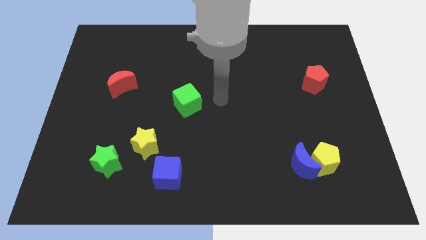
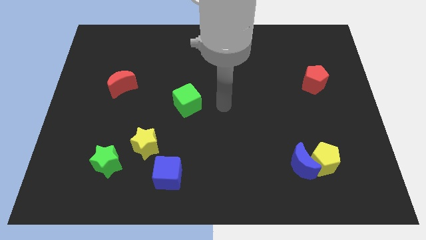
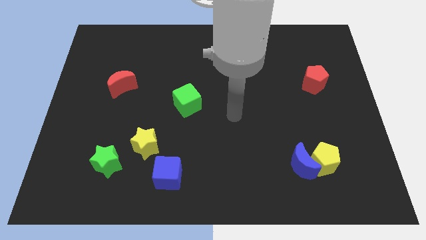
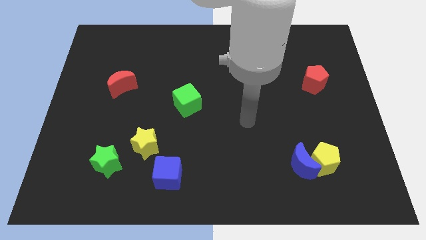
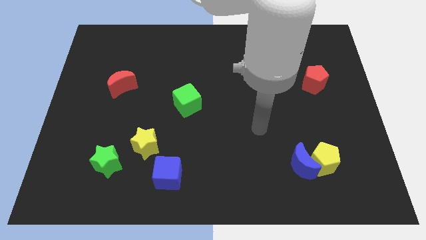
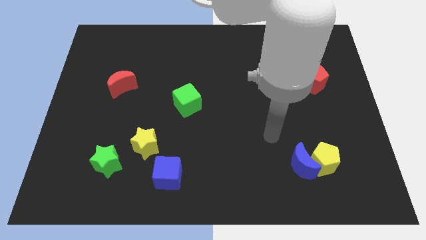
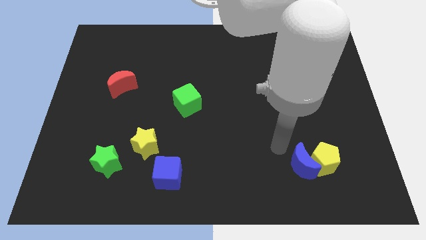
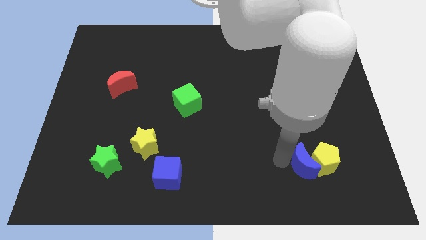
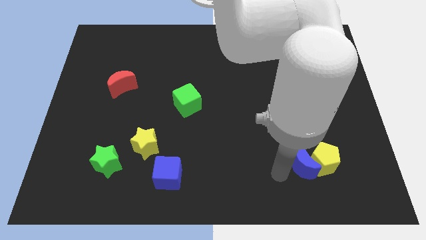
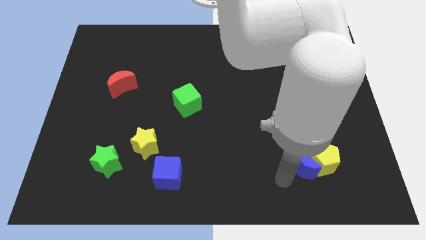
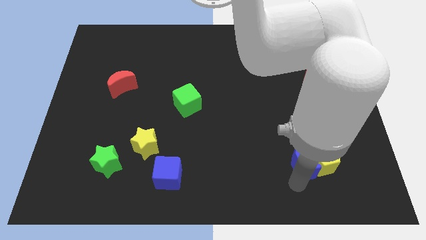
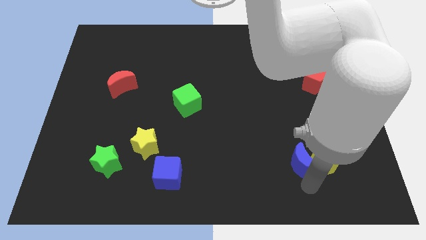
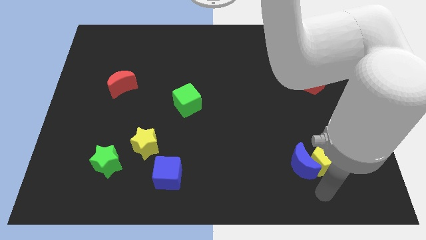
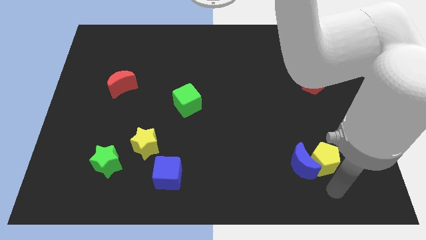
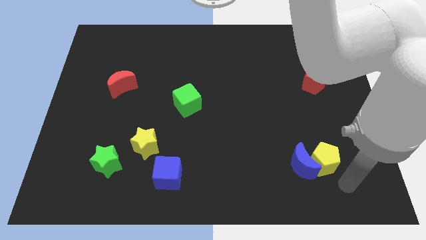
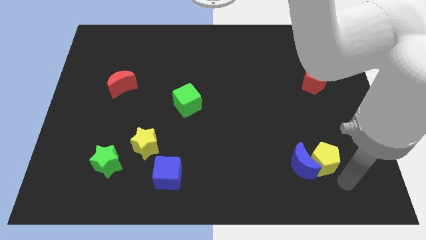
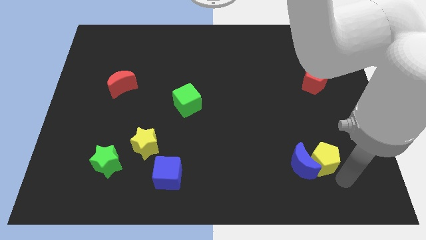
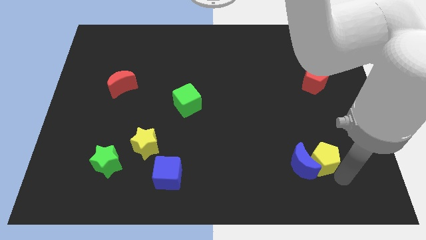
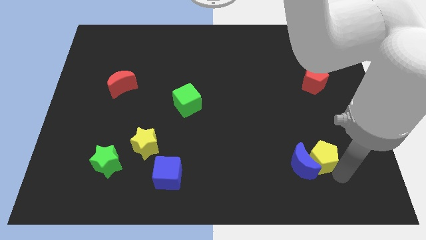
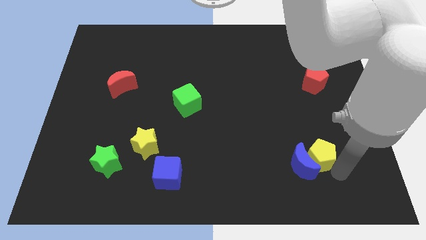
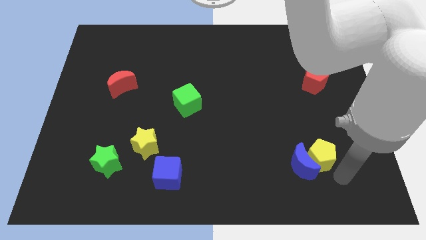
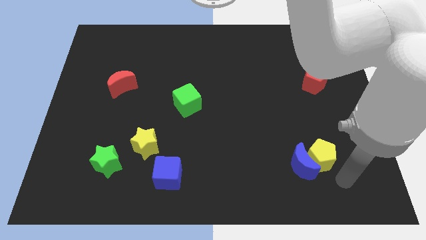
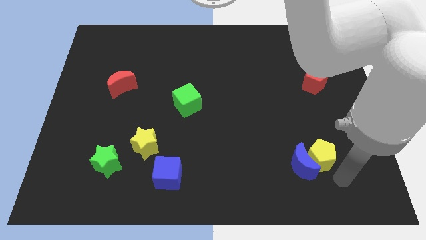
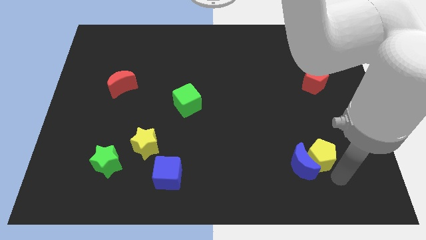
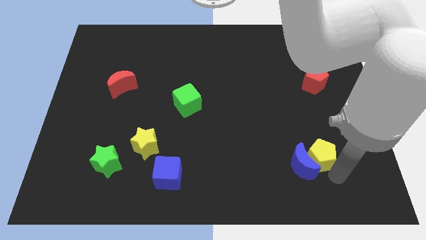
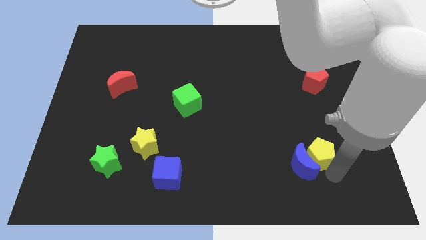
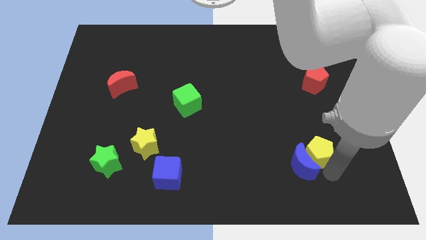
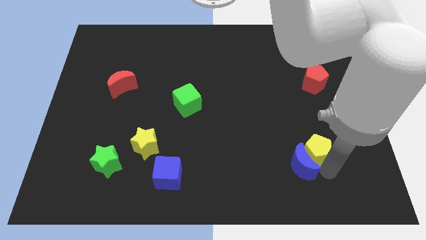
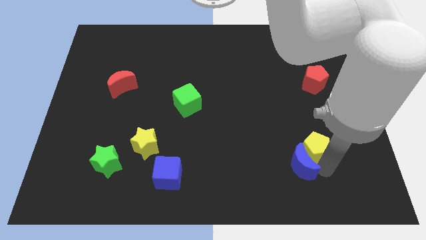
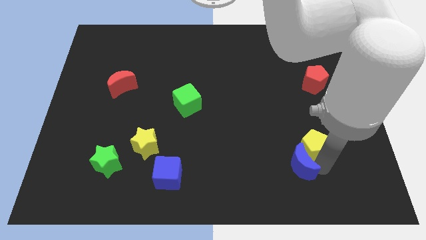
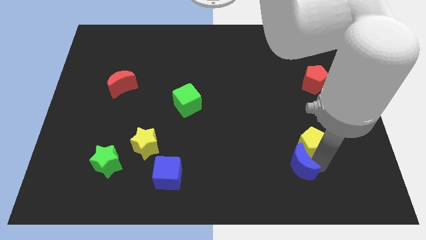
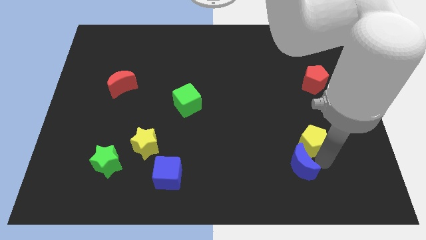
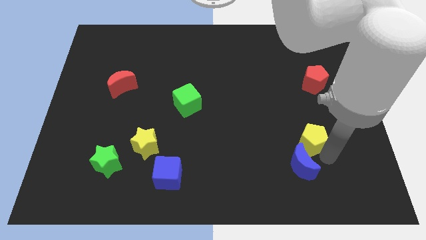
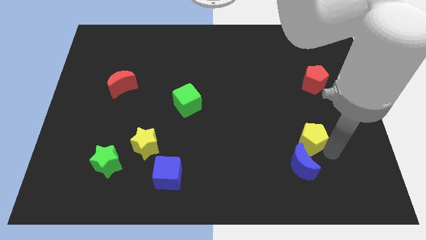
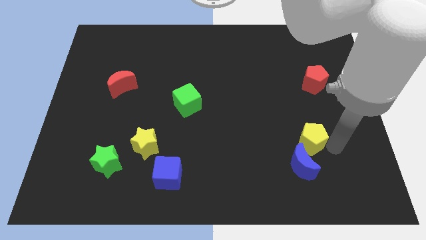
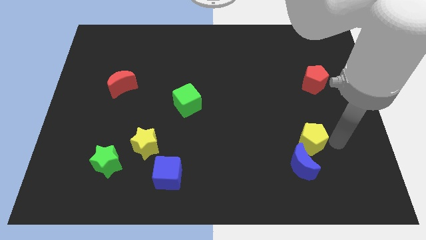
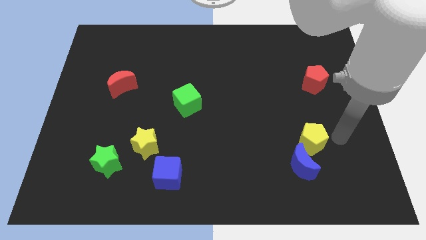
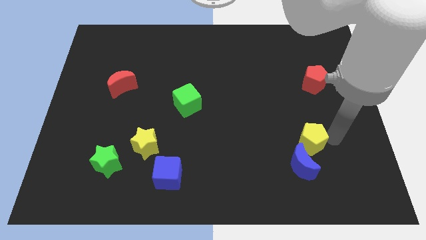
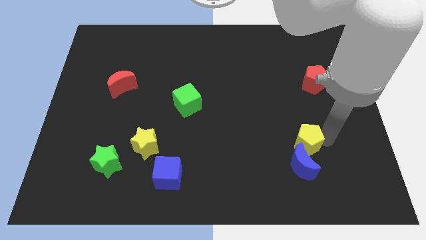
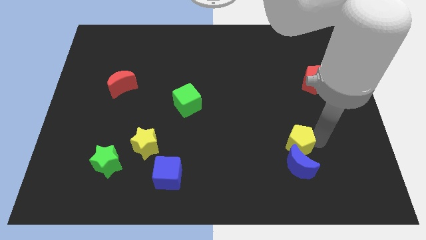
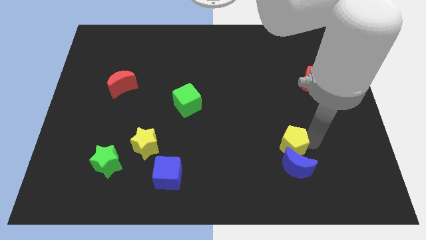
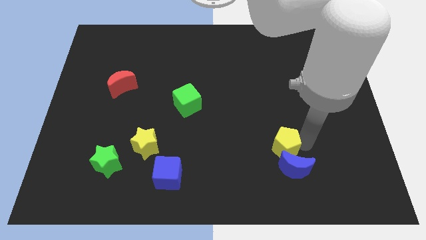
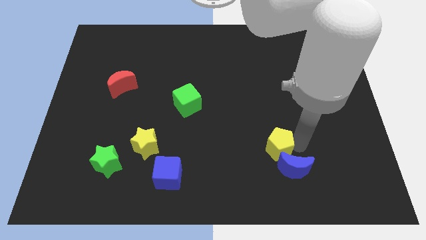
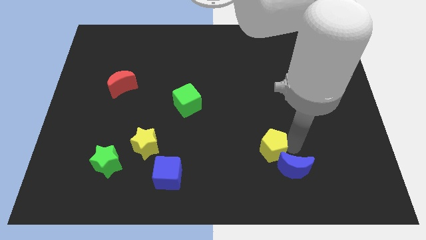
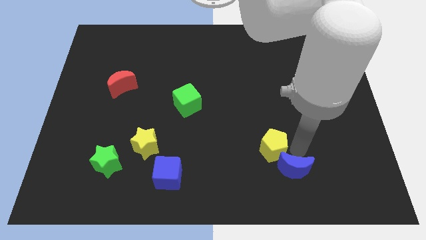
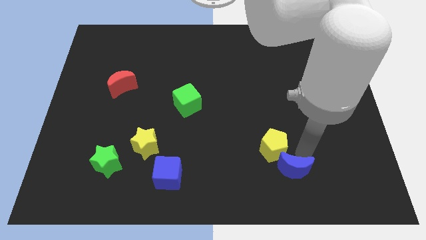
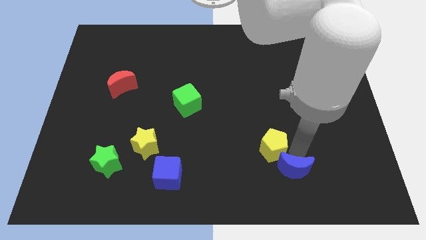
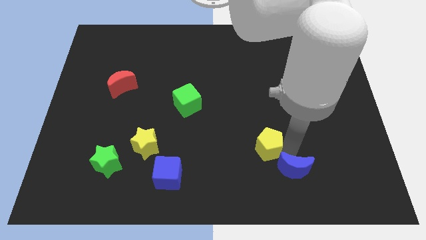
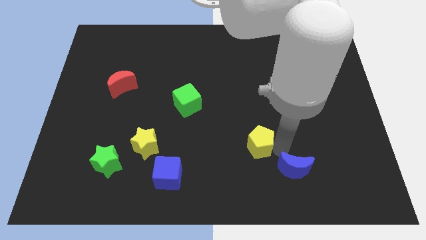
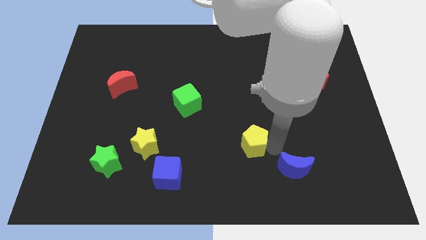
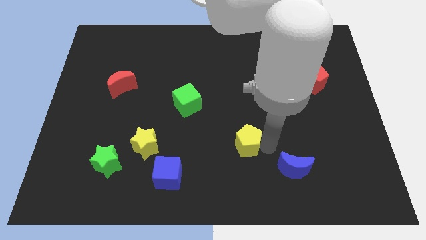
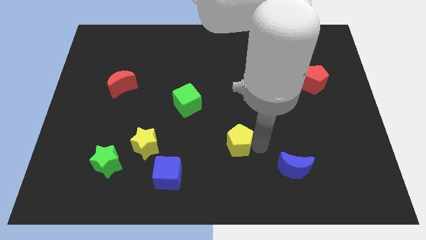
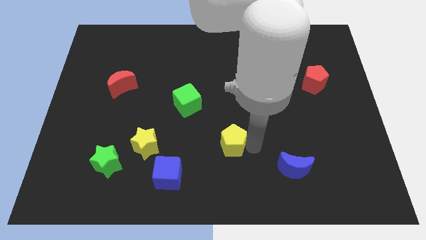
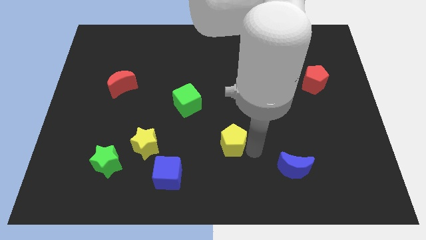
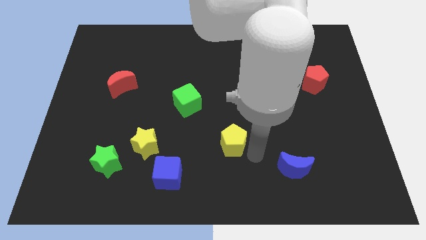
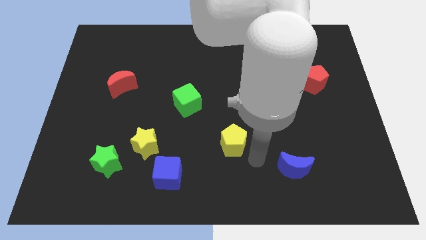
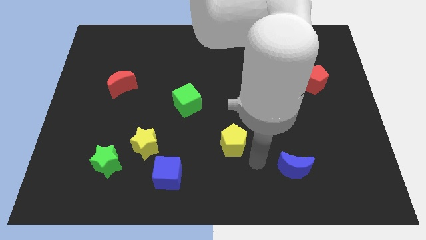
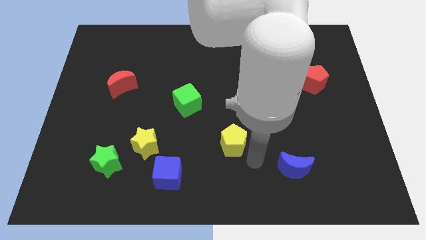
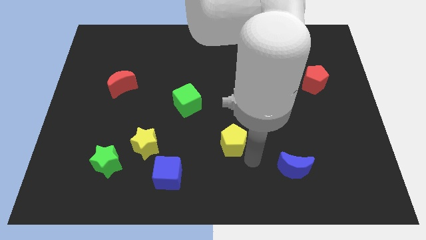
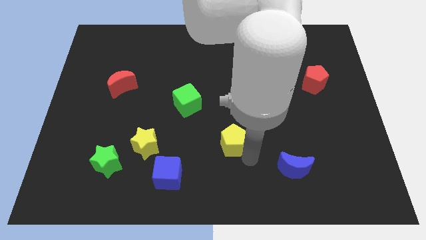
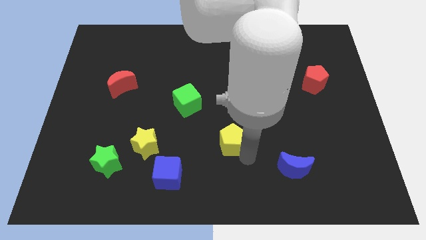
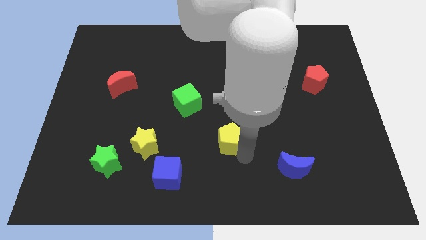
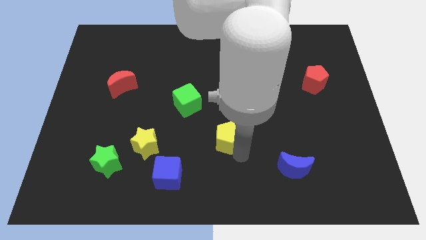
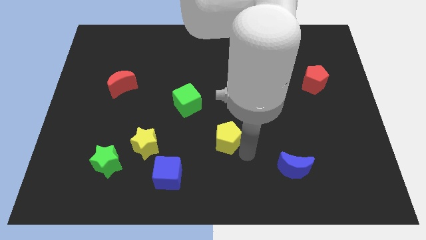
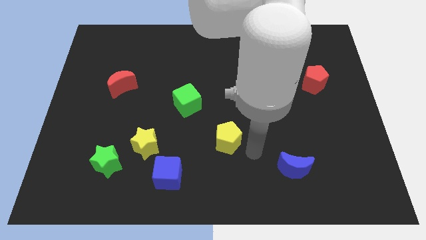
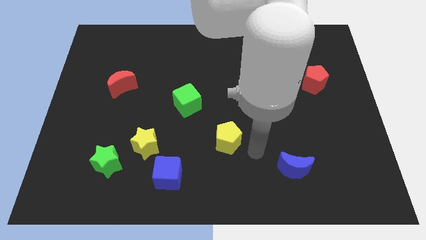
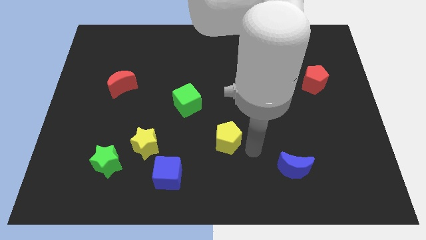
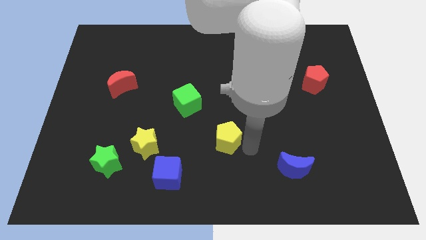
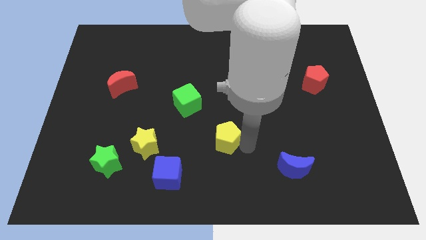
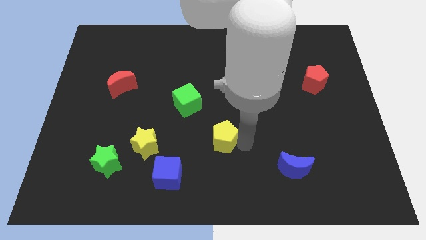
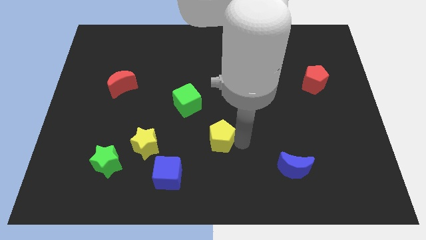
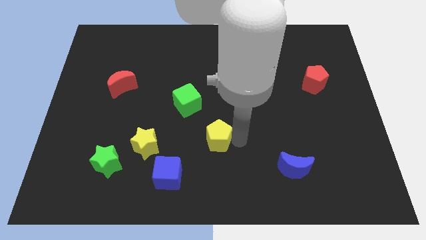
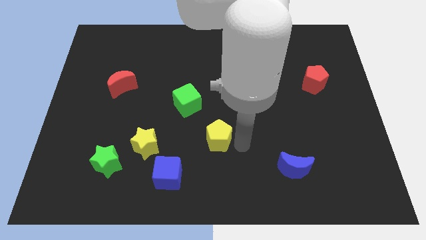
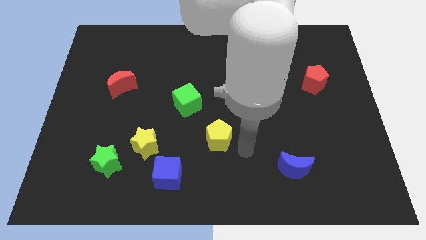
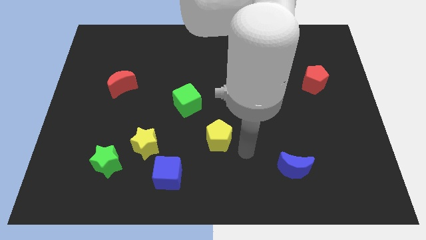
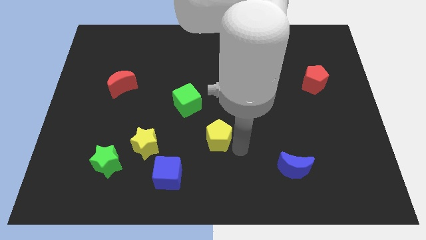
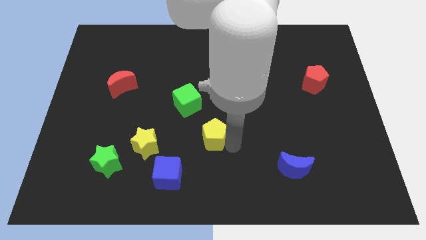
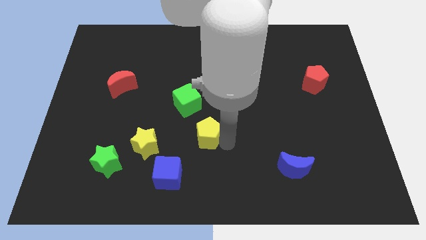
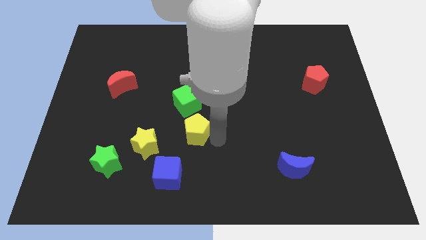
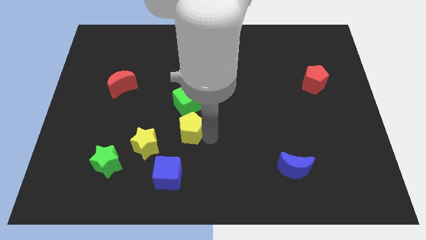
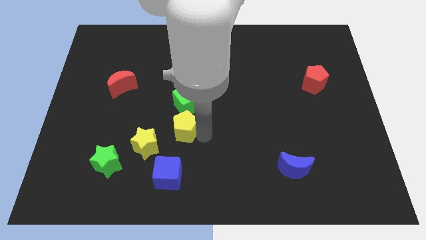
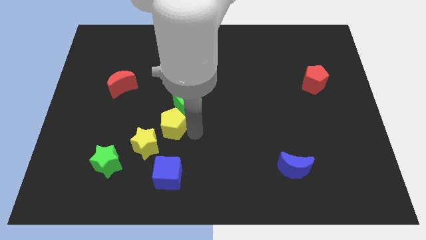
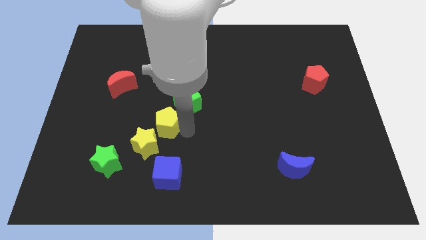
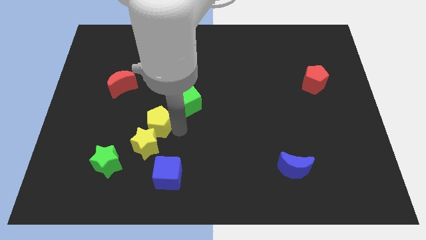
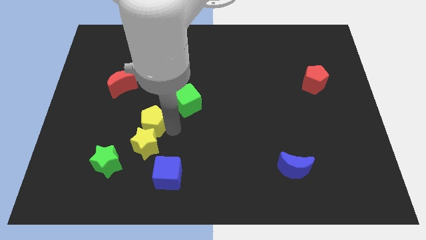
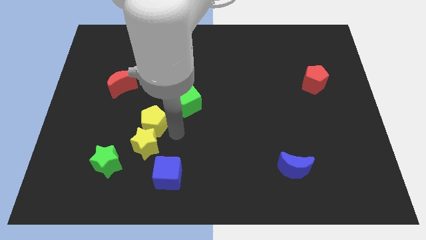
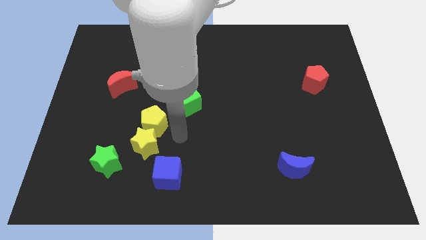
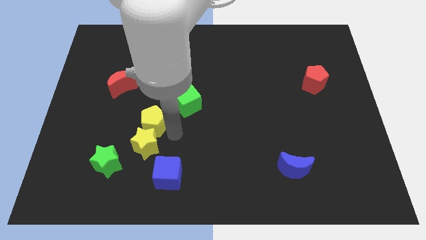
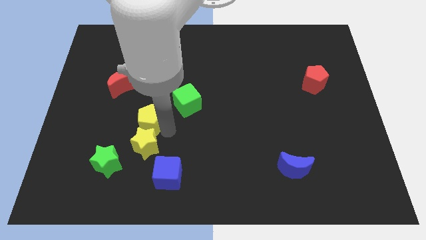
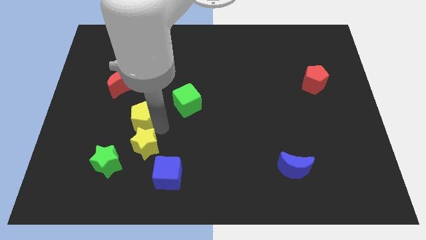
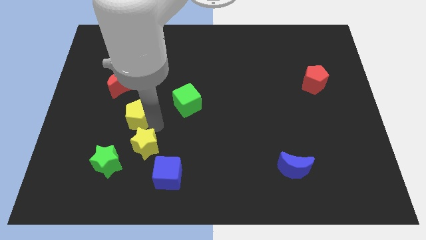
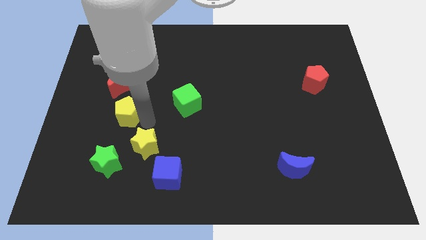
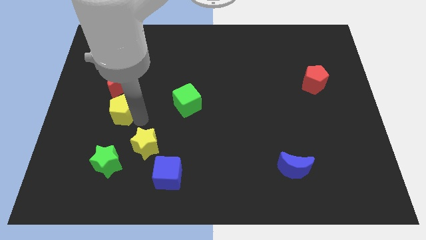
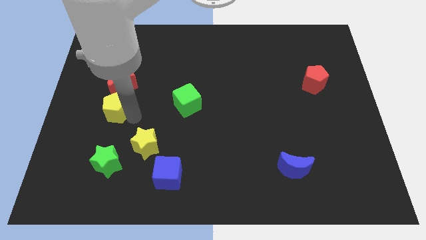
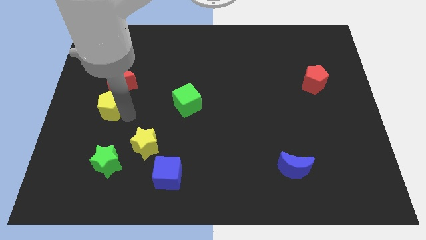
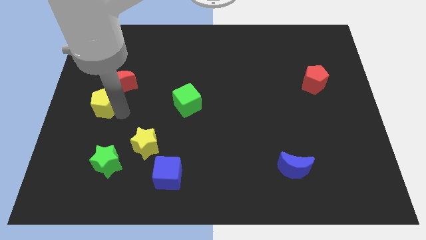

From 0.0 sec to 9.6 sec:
move the yellow pentagon to the left side of the board
